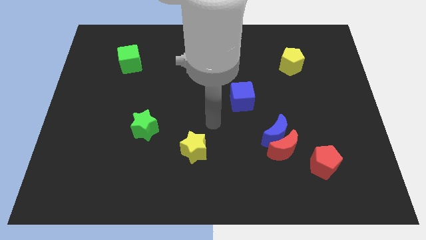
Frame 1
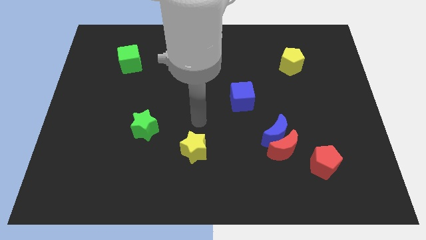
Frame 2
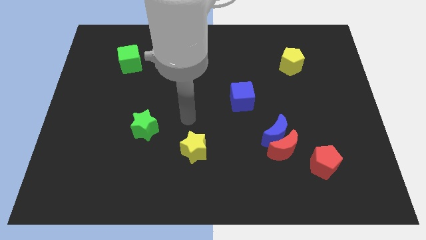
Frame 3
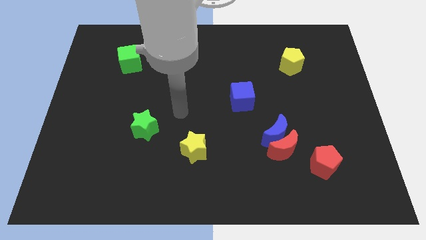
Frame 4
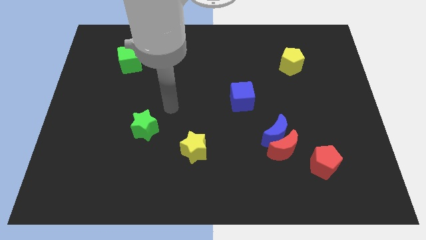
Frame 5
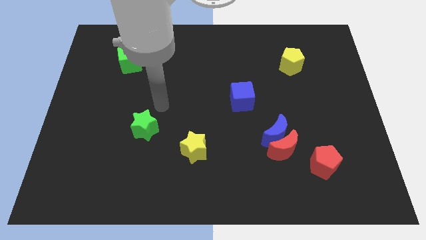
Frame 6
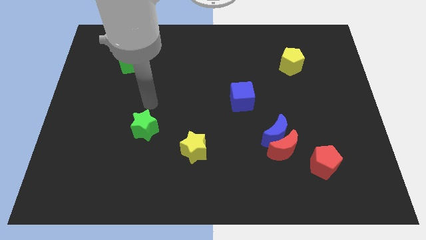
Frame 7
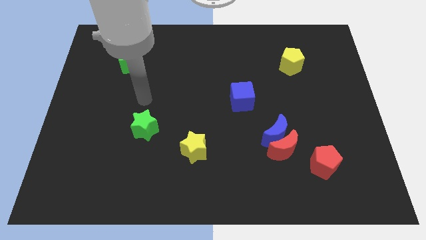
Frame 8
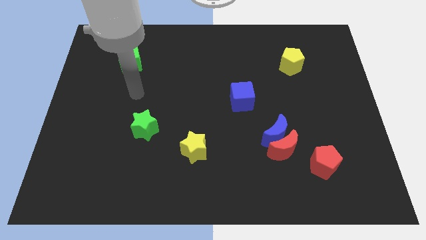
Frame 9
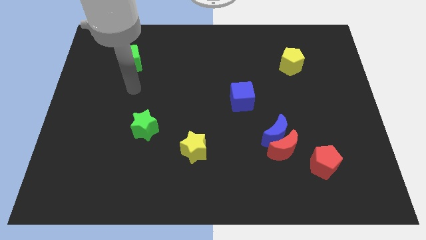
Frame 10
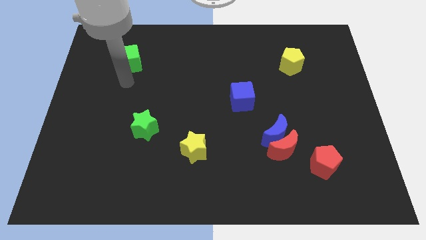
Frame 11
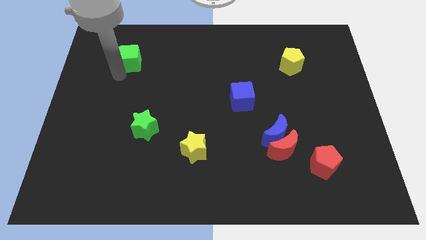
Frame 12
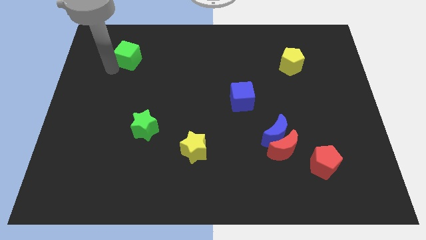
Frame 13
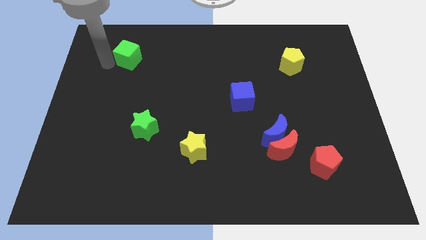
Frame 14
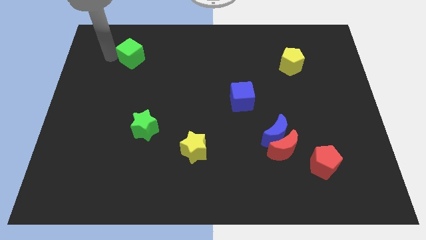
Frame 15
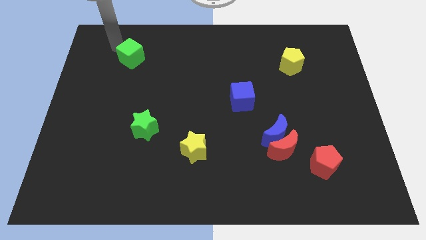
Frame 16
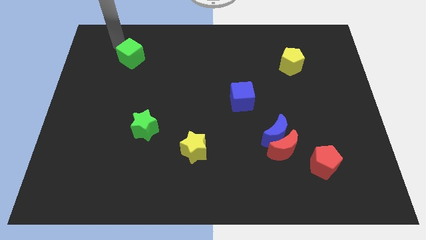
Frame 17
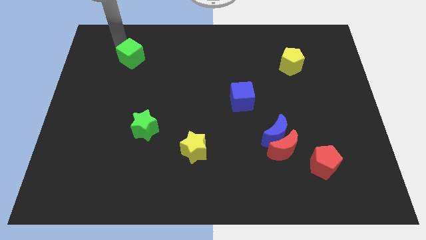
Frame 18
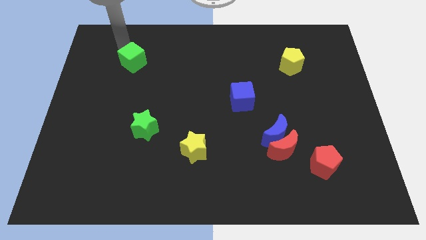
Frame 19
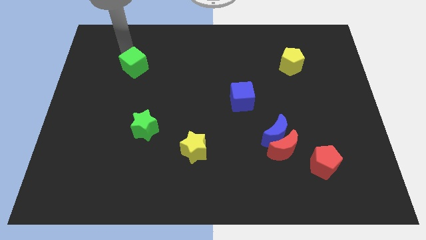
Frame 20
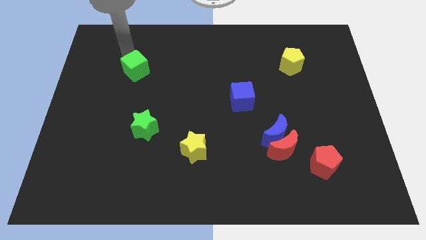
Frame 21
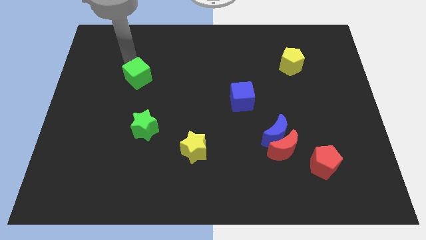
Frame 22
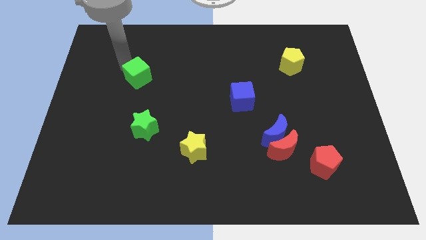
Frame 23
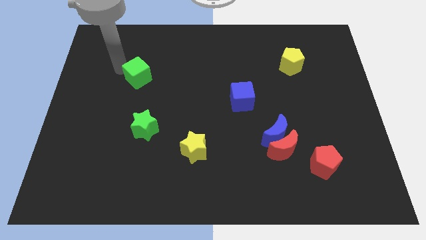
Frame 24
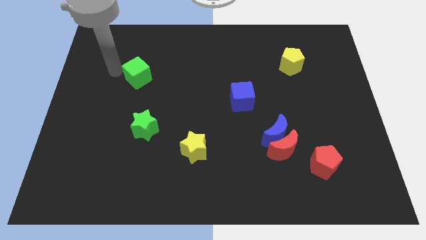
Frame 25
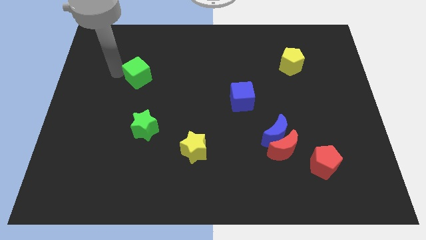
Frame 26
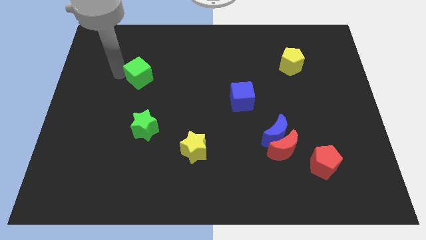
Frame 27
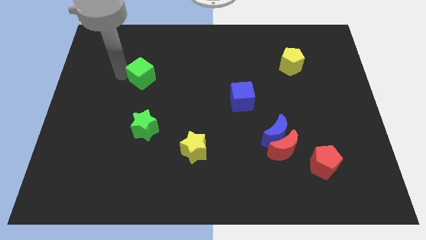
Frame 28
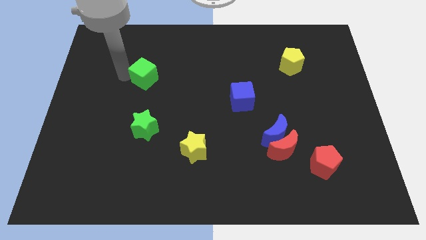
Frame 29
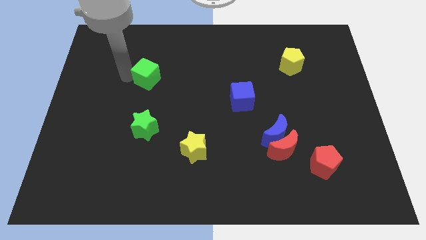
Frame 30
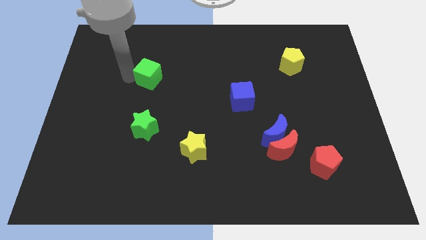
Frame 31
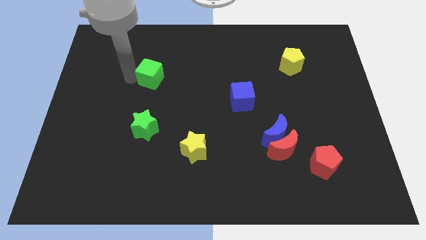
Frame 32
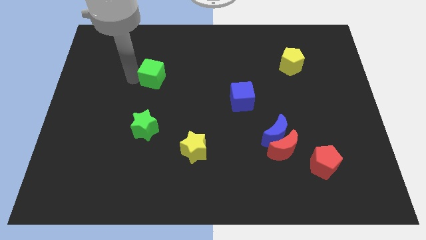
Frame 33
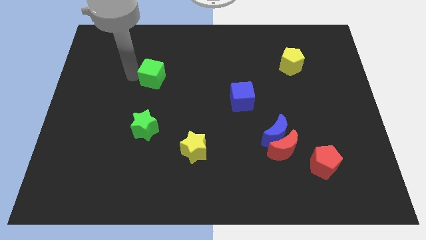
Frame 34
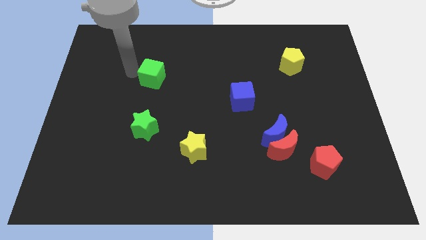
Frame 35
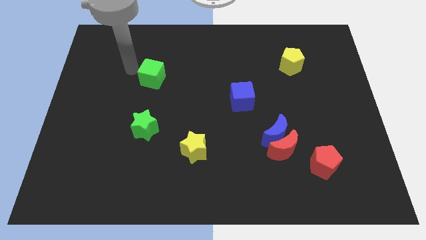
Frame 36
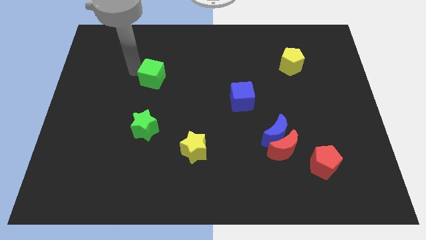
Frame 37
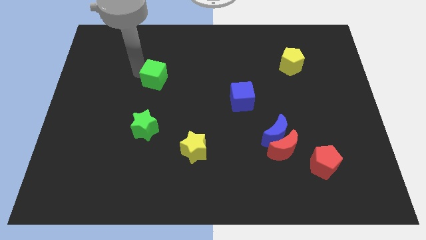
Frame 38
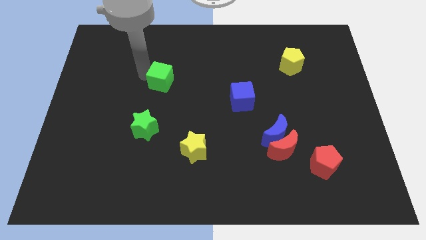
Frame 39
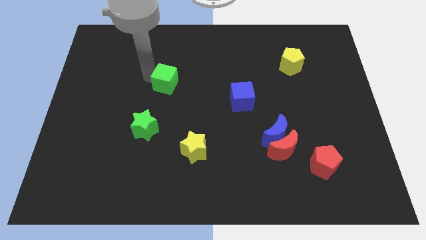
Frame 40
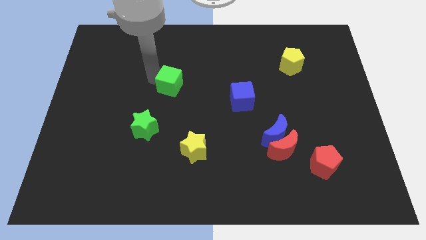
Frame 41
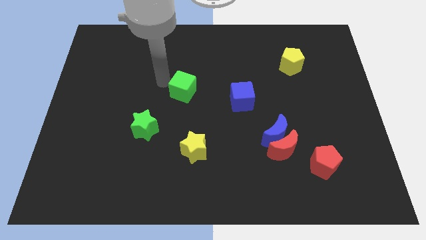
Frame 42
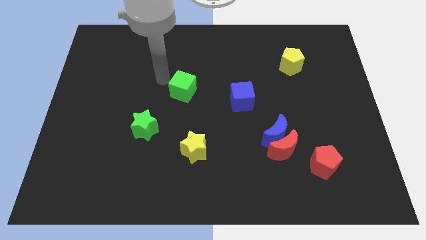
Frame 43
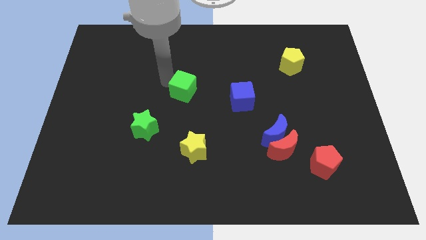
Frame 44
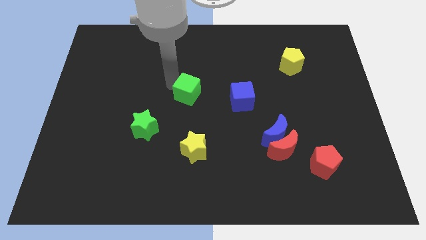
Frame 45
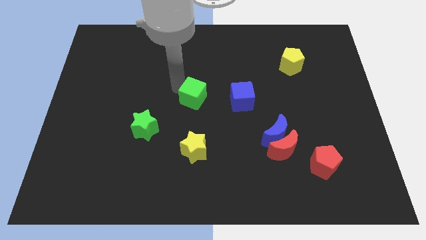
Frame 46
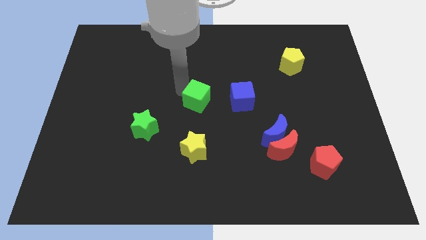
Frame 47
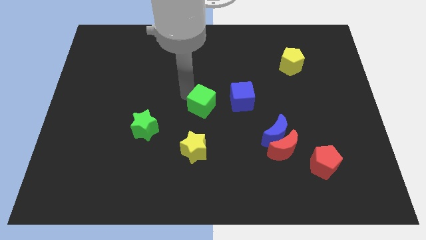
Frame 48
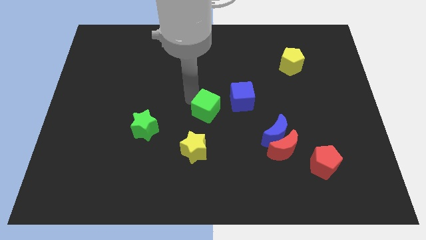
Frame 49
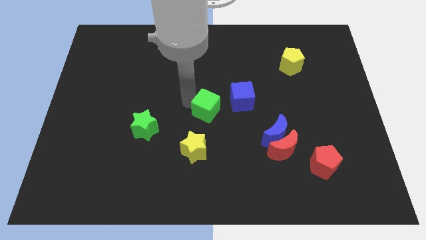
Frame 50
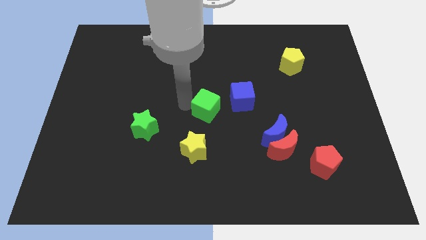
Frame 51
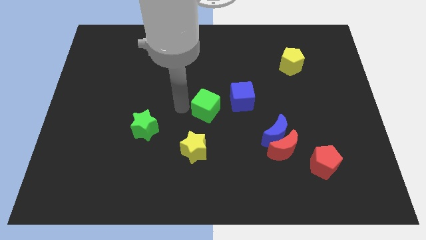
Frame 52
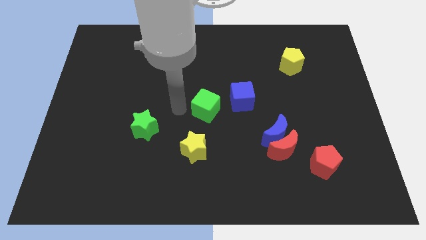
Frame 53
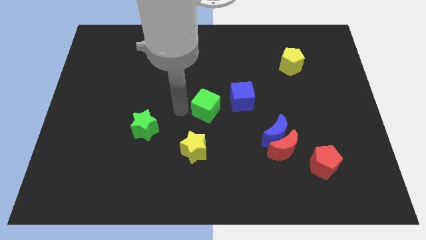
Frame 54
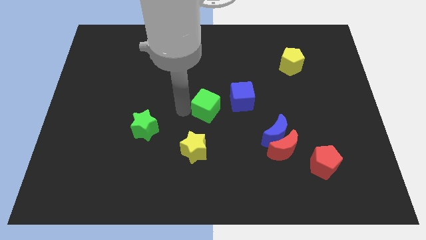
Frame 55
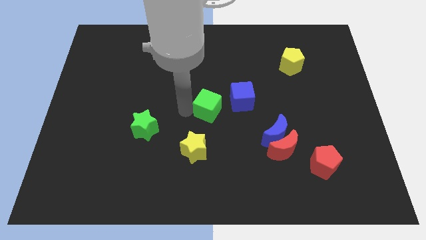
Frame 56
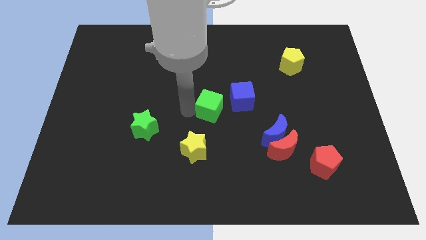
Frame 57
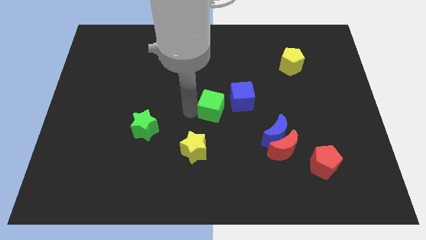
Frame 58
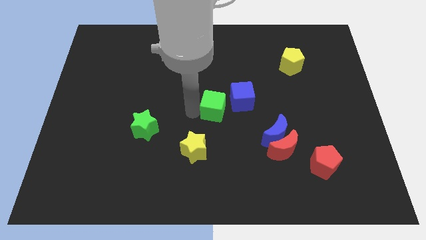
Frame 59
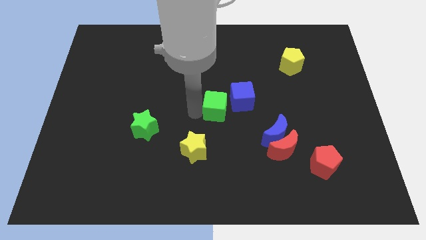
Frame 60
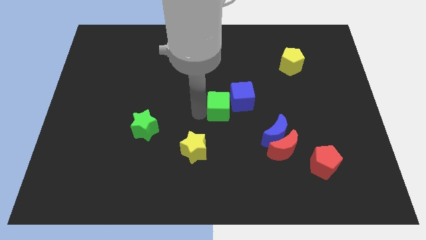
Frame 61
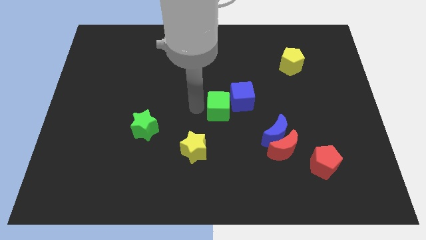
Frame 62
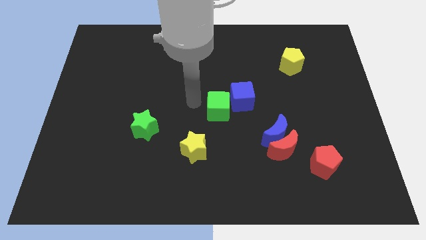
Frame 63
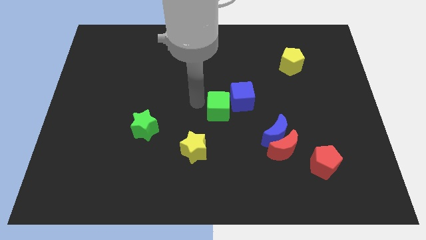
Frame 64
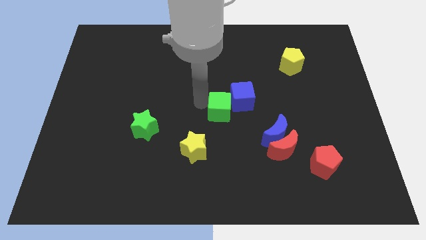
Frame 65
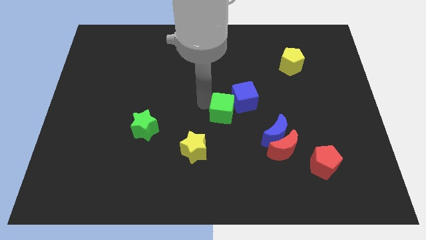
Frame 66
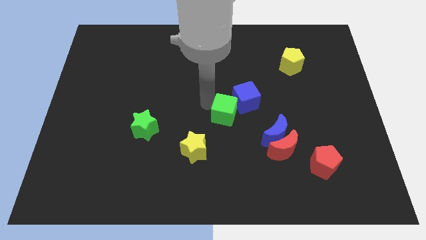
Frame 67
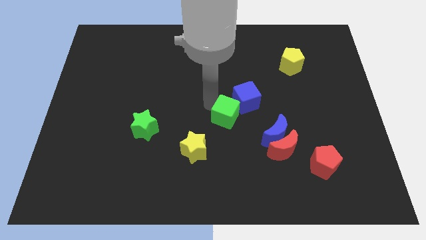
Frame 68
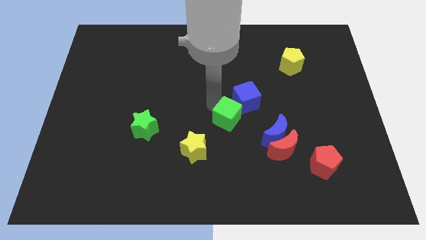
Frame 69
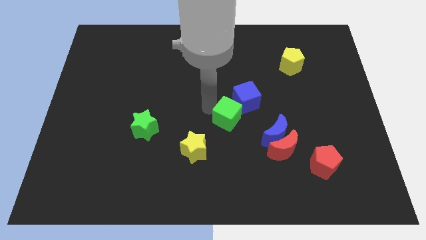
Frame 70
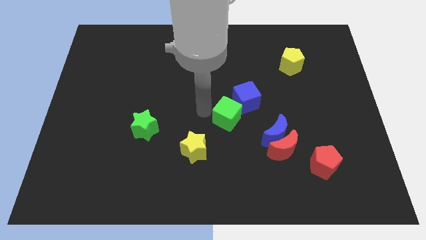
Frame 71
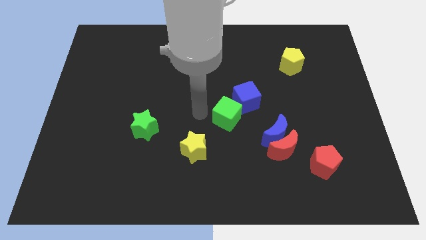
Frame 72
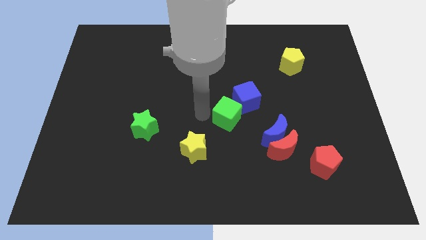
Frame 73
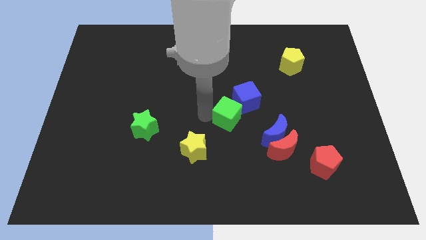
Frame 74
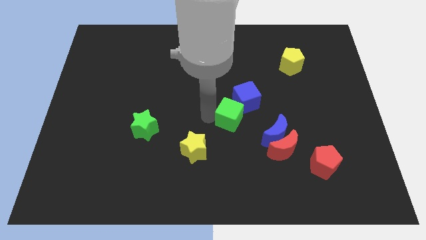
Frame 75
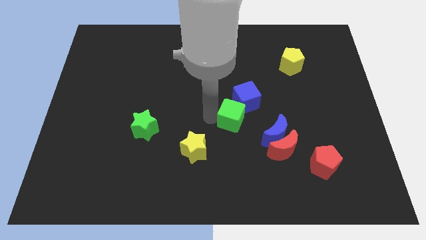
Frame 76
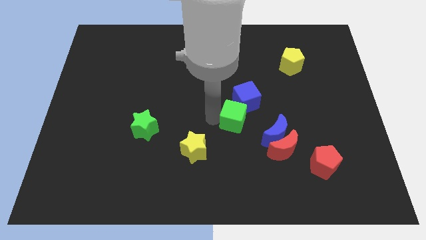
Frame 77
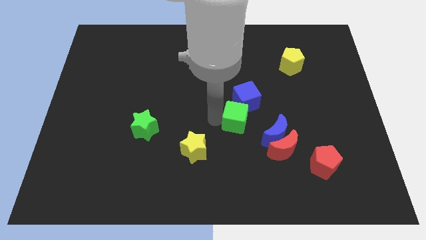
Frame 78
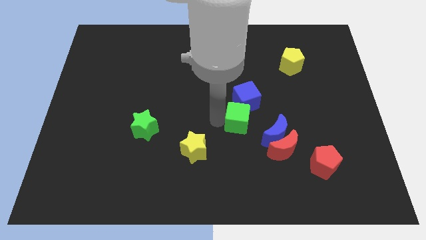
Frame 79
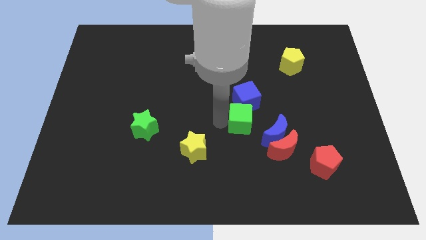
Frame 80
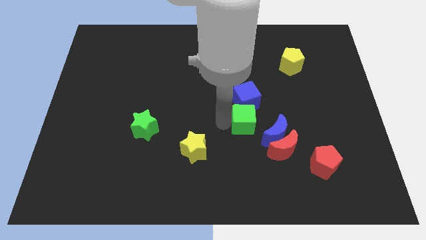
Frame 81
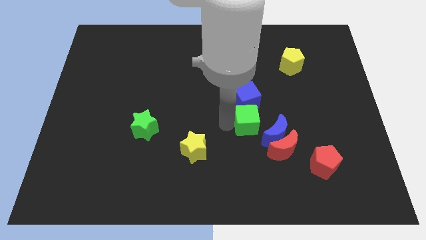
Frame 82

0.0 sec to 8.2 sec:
put the green cube to the bottom right of the blue cube
